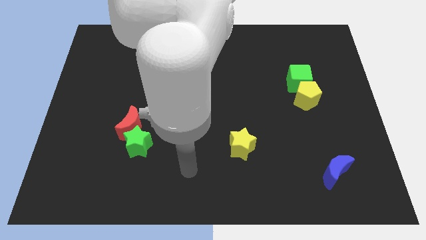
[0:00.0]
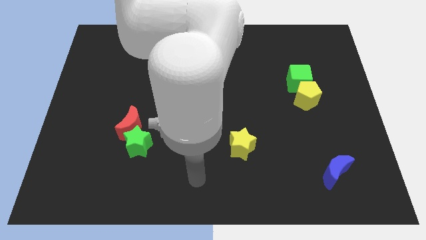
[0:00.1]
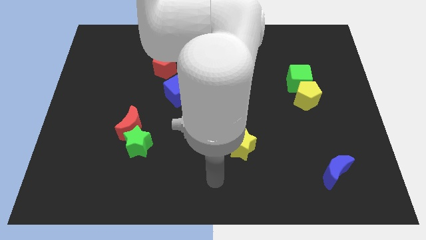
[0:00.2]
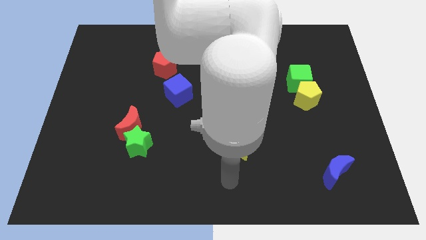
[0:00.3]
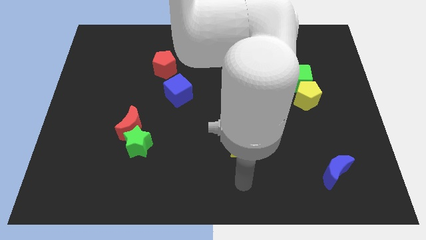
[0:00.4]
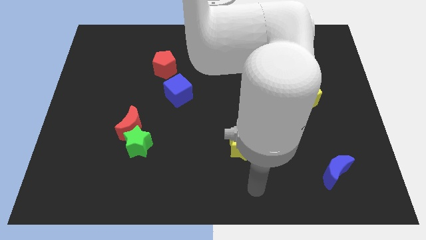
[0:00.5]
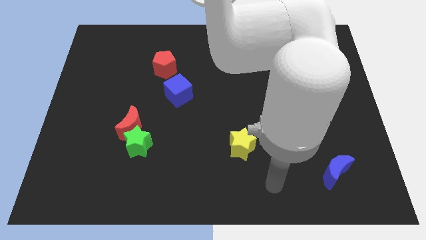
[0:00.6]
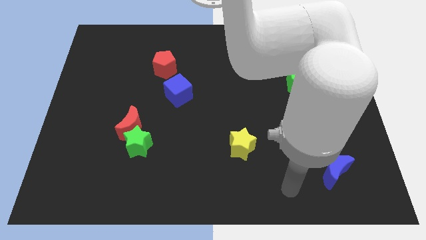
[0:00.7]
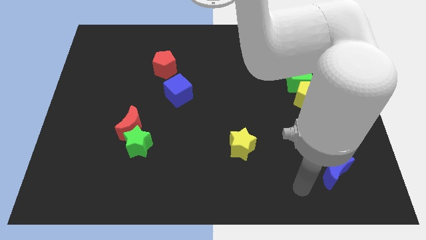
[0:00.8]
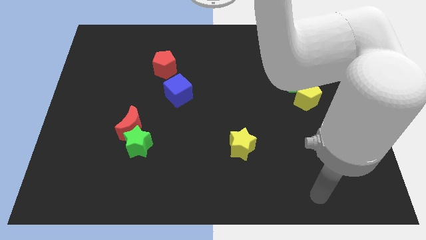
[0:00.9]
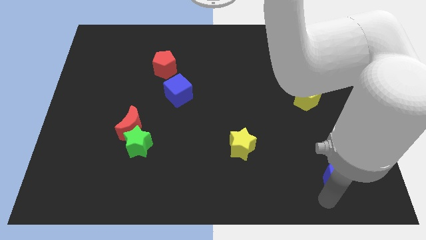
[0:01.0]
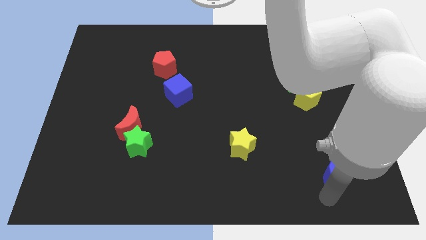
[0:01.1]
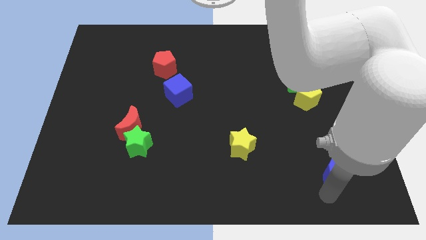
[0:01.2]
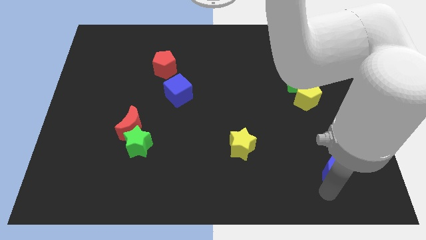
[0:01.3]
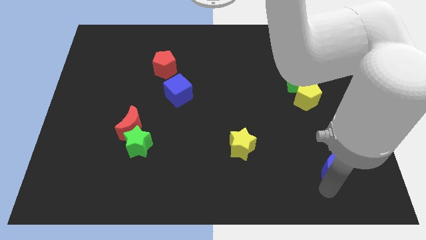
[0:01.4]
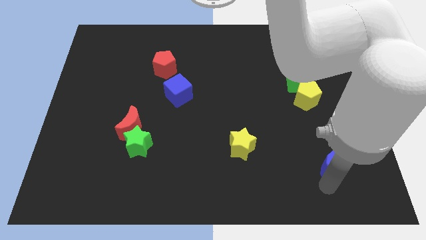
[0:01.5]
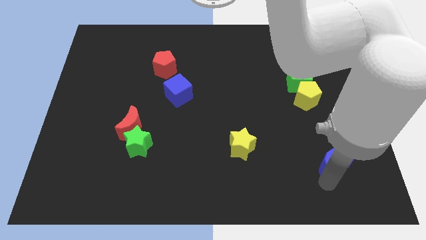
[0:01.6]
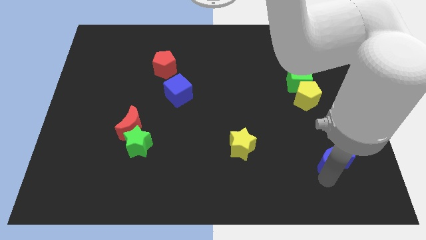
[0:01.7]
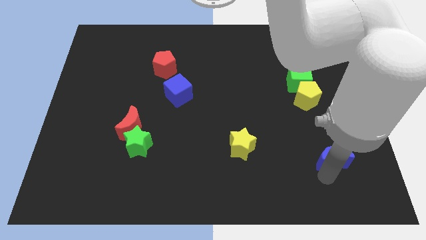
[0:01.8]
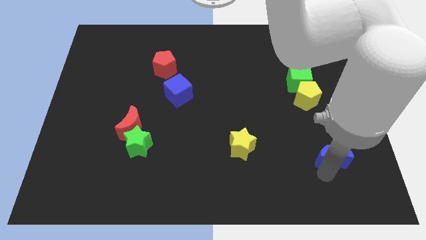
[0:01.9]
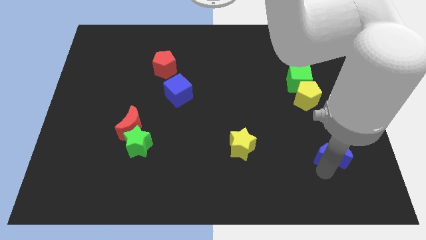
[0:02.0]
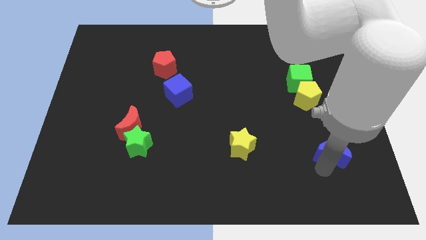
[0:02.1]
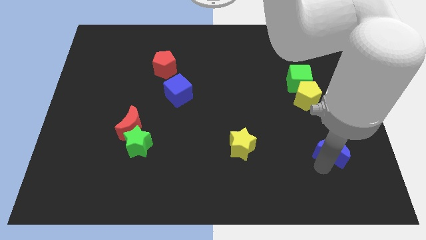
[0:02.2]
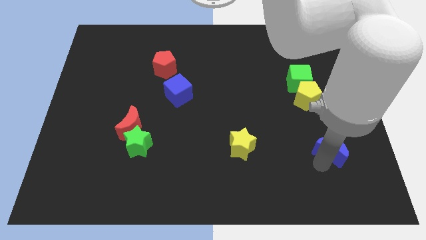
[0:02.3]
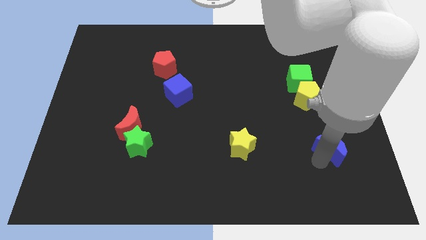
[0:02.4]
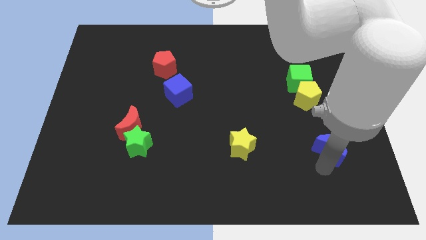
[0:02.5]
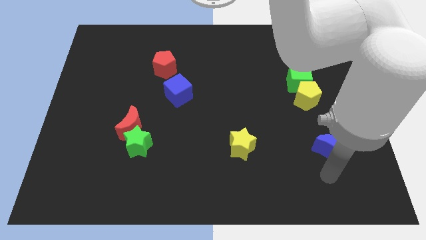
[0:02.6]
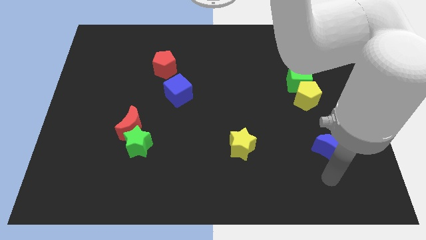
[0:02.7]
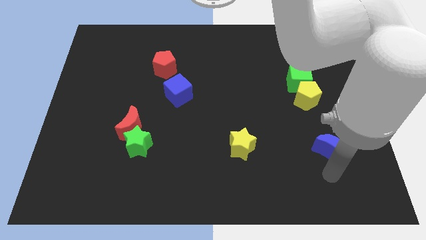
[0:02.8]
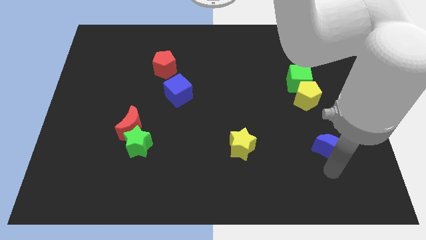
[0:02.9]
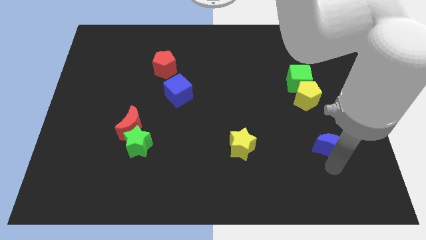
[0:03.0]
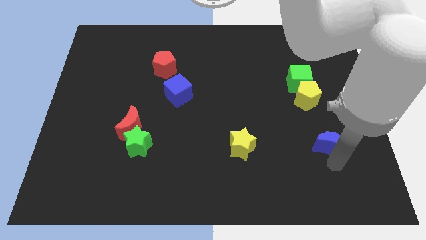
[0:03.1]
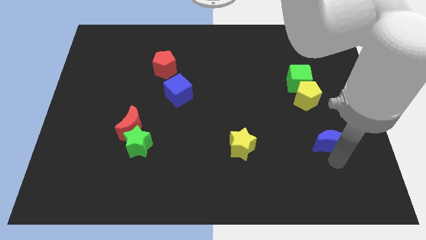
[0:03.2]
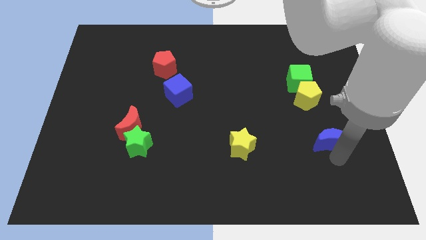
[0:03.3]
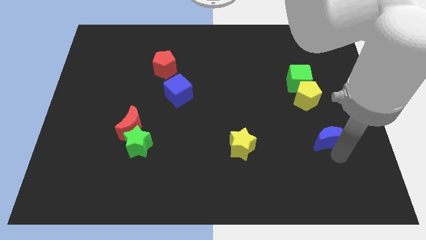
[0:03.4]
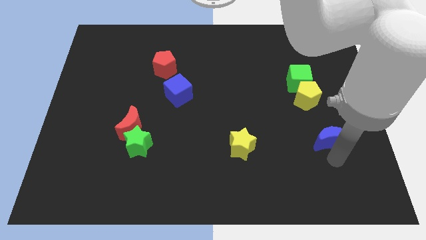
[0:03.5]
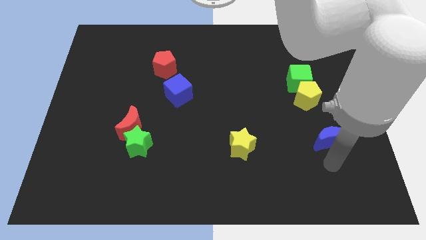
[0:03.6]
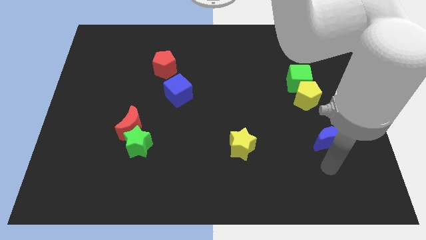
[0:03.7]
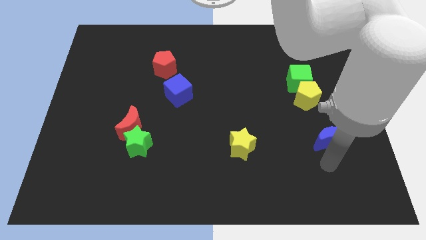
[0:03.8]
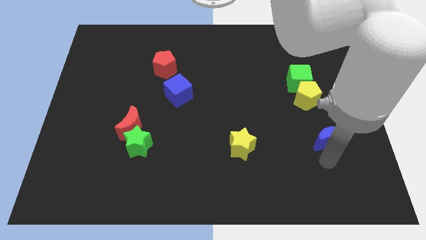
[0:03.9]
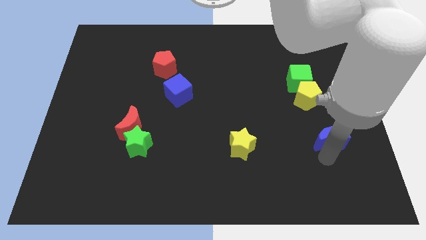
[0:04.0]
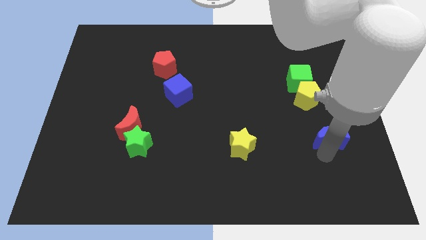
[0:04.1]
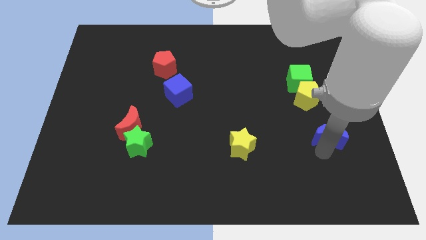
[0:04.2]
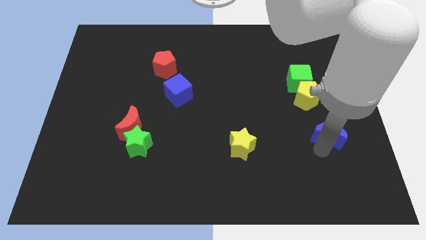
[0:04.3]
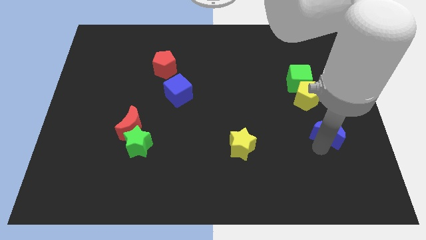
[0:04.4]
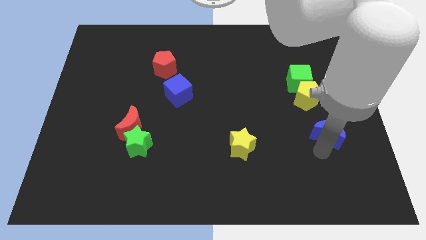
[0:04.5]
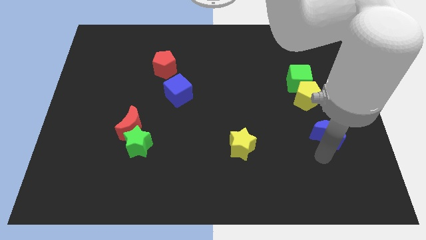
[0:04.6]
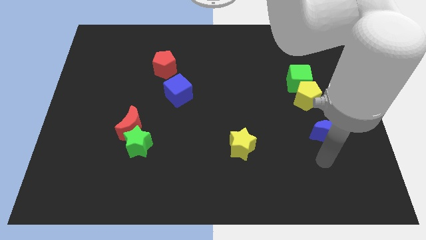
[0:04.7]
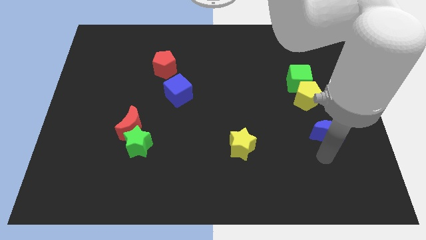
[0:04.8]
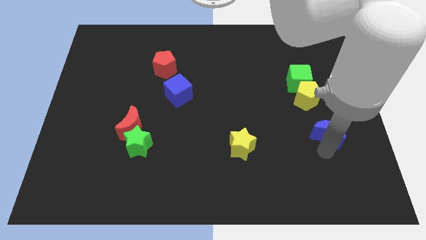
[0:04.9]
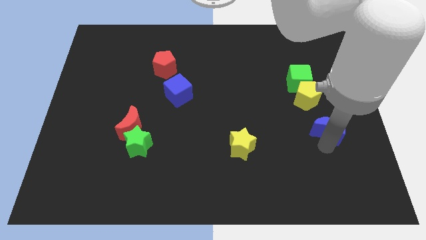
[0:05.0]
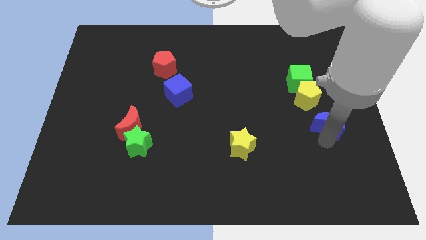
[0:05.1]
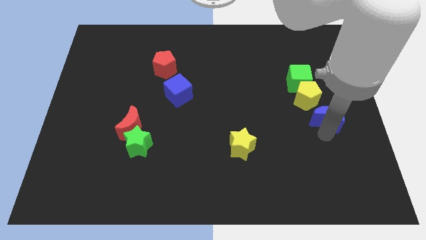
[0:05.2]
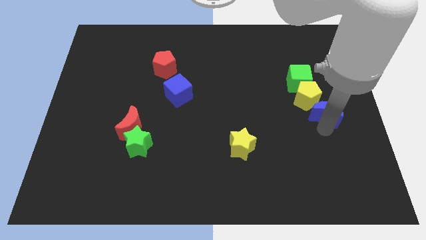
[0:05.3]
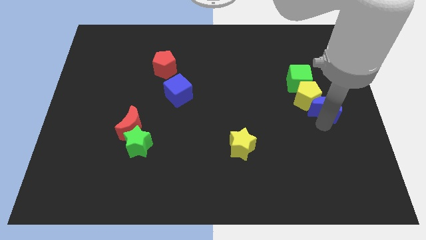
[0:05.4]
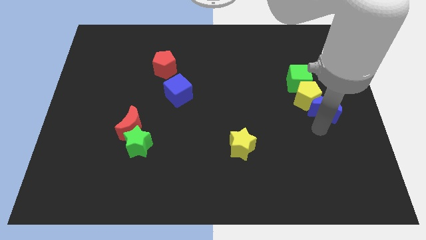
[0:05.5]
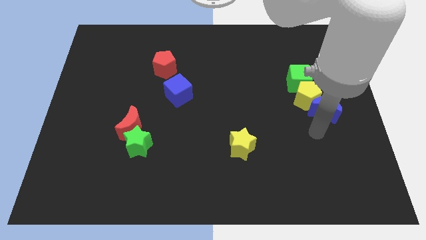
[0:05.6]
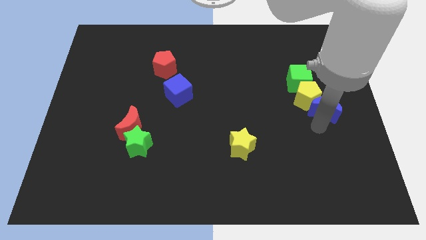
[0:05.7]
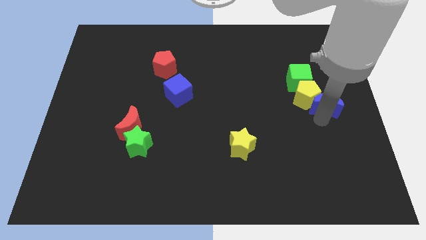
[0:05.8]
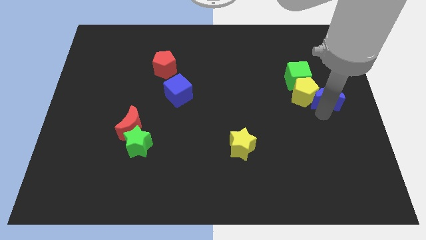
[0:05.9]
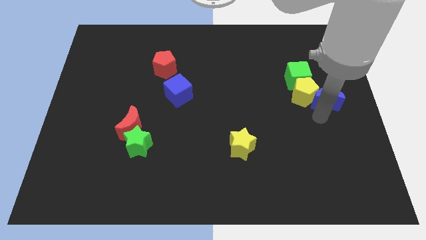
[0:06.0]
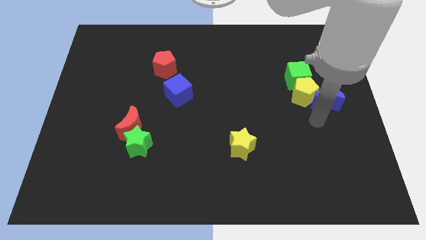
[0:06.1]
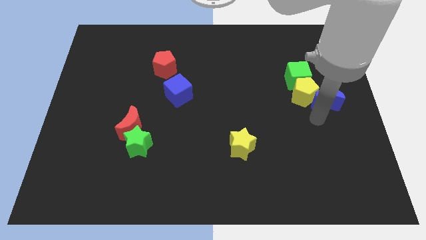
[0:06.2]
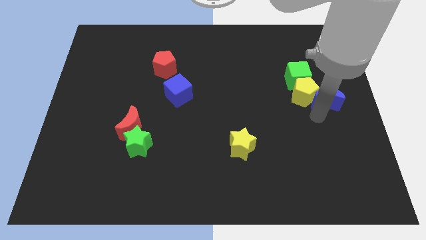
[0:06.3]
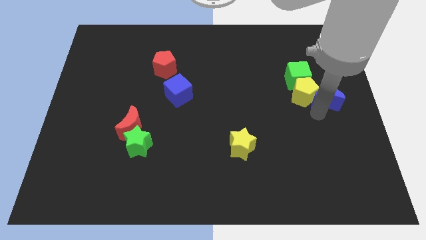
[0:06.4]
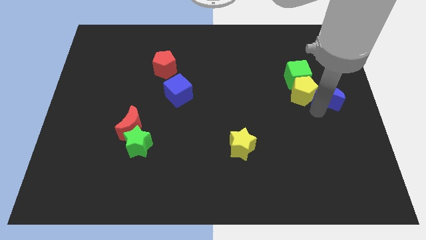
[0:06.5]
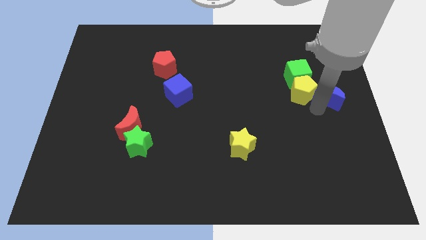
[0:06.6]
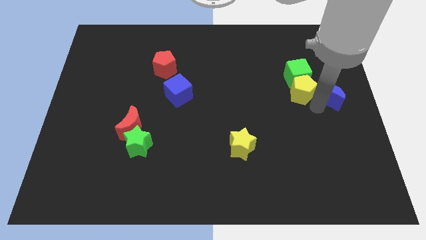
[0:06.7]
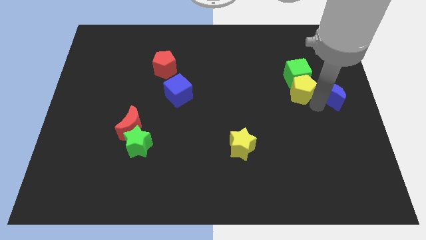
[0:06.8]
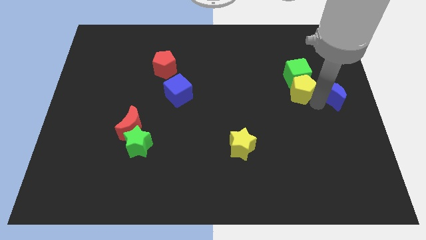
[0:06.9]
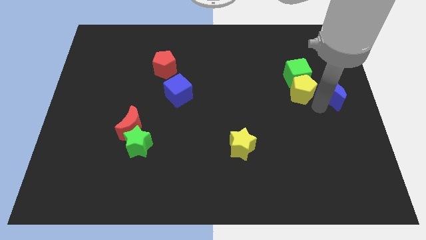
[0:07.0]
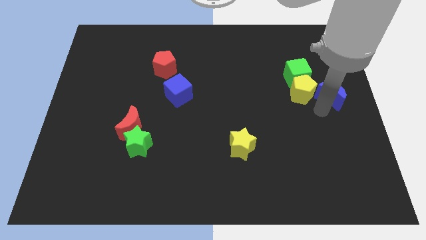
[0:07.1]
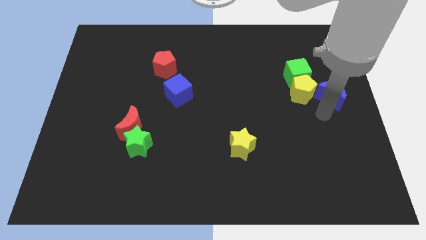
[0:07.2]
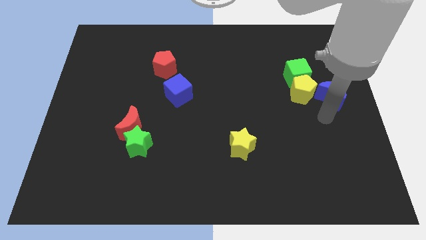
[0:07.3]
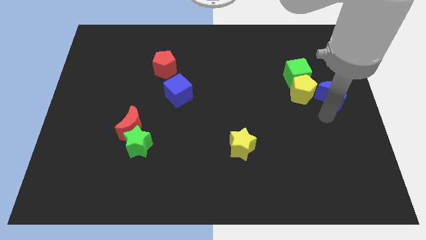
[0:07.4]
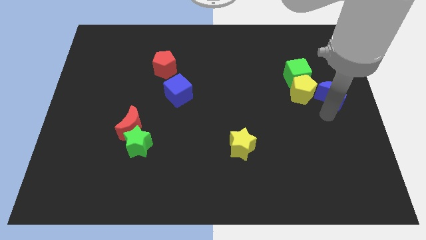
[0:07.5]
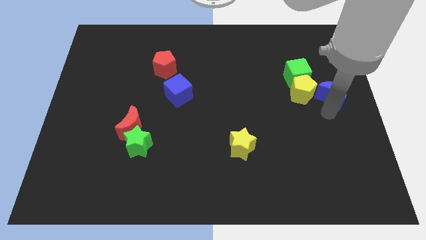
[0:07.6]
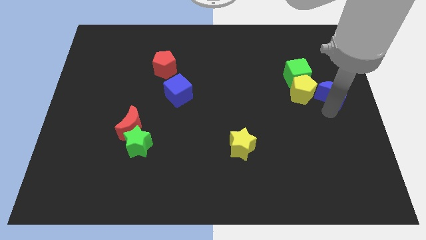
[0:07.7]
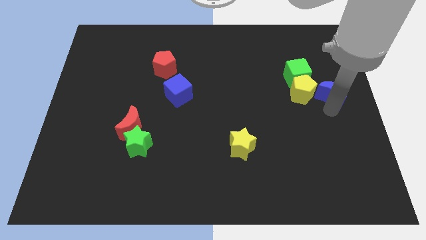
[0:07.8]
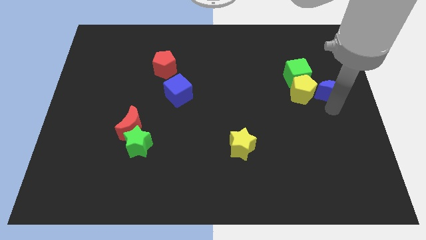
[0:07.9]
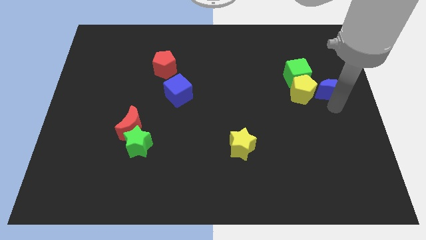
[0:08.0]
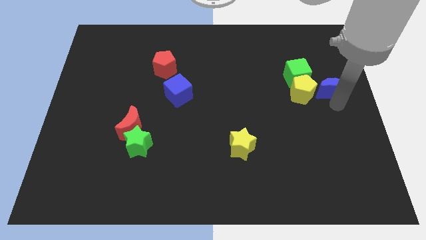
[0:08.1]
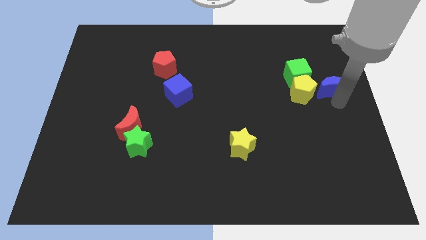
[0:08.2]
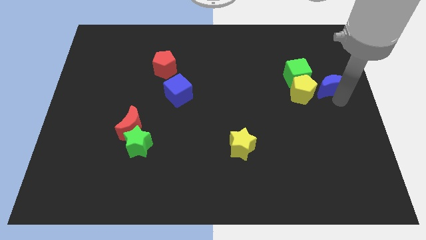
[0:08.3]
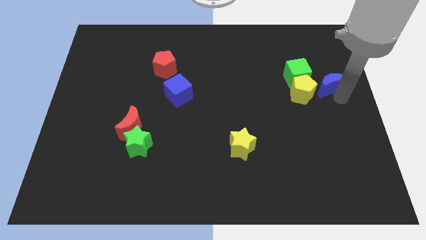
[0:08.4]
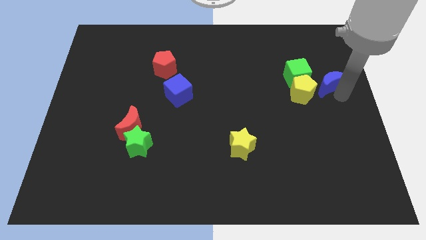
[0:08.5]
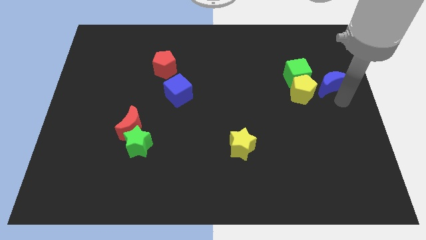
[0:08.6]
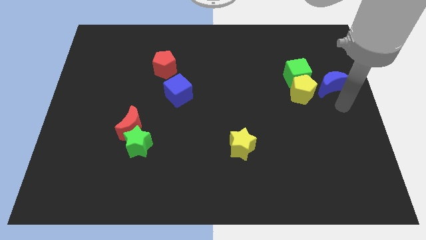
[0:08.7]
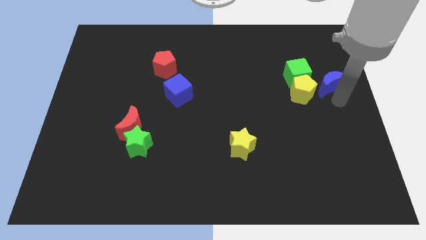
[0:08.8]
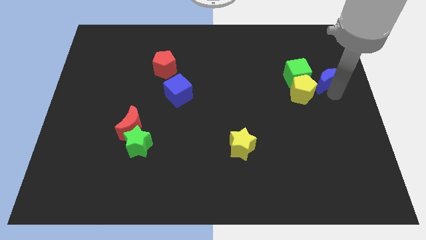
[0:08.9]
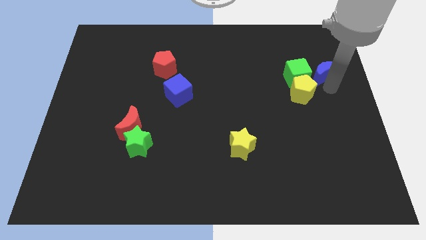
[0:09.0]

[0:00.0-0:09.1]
push the blue moon to the top right side of the green cube
